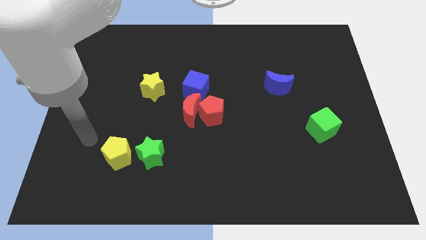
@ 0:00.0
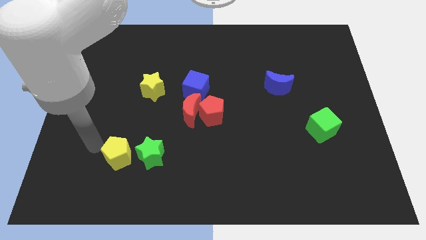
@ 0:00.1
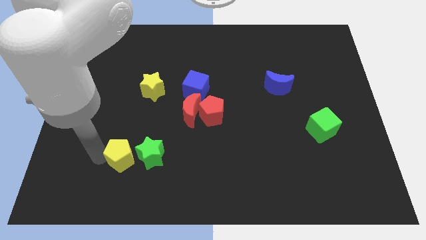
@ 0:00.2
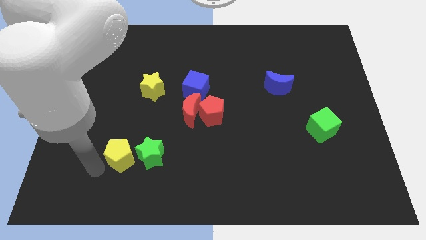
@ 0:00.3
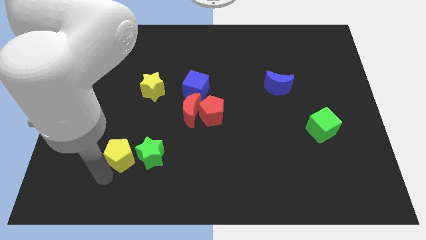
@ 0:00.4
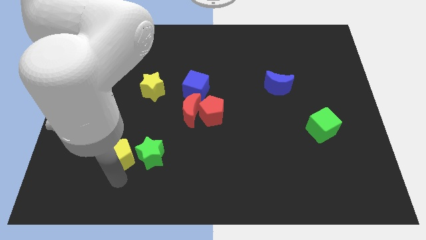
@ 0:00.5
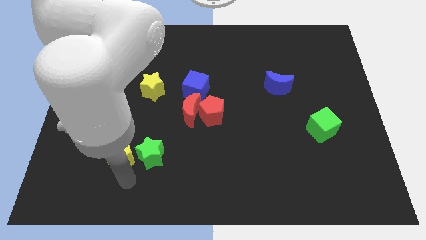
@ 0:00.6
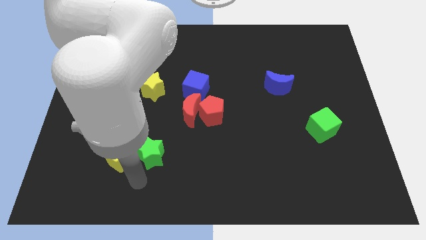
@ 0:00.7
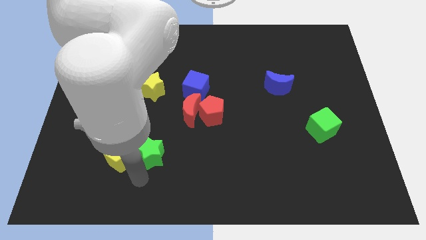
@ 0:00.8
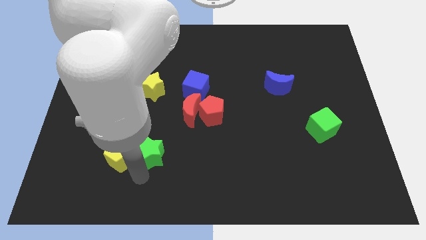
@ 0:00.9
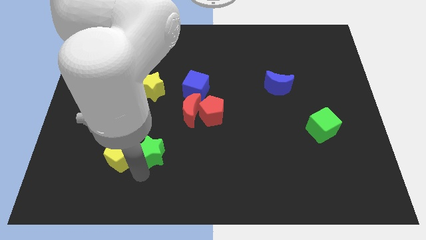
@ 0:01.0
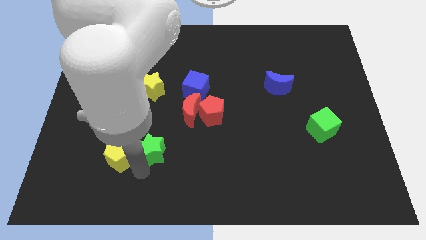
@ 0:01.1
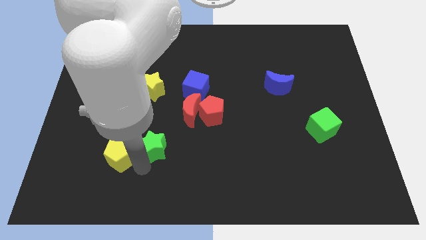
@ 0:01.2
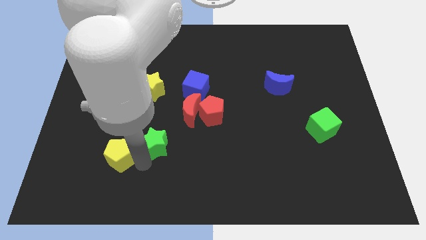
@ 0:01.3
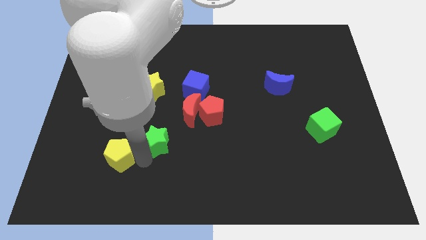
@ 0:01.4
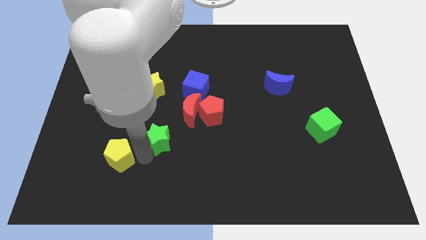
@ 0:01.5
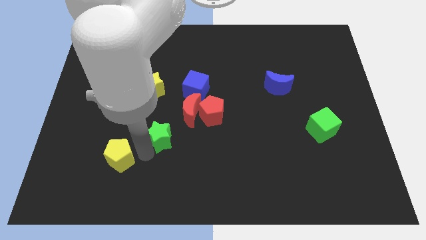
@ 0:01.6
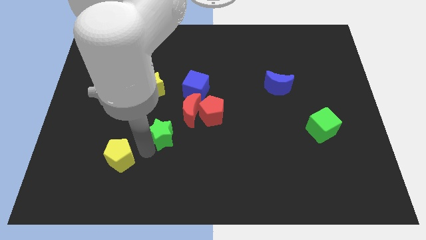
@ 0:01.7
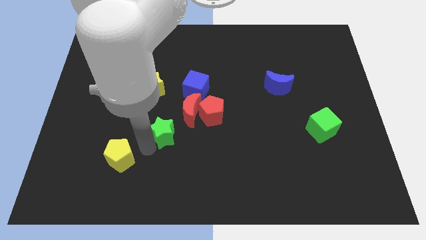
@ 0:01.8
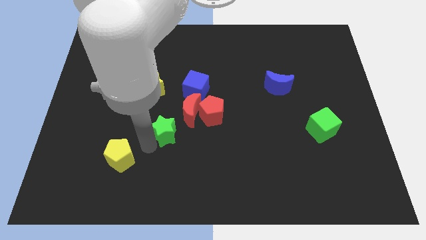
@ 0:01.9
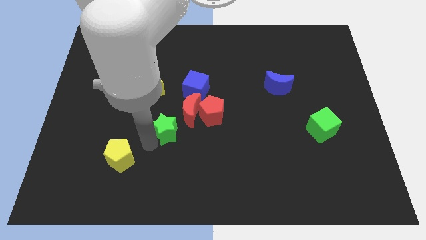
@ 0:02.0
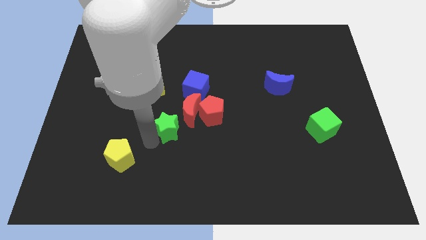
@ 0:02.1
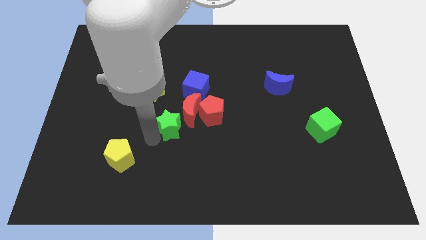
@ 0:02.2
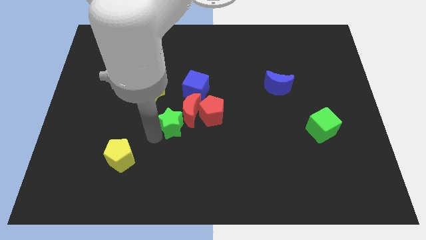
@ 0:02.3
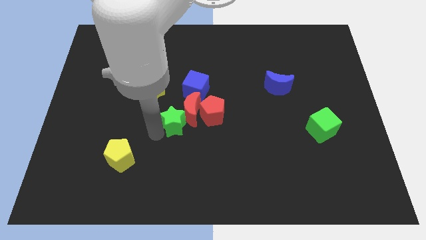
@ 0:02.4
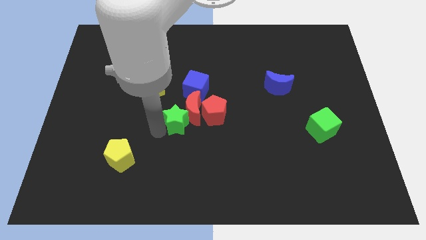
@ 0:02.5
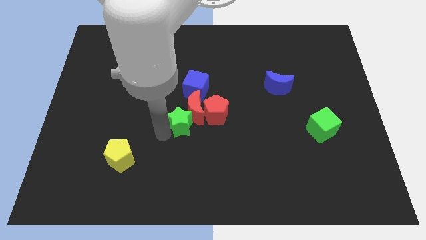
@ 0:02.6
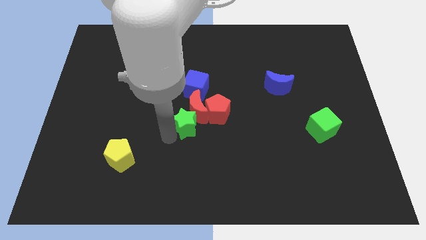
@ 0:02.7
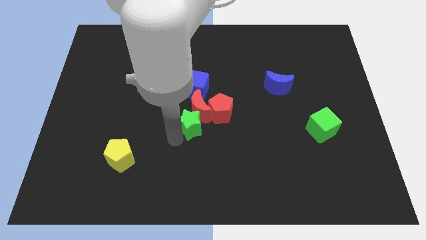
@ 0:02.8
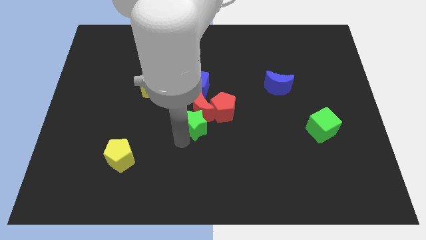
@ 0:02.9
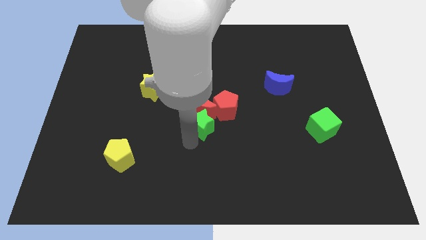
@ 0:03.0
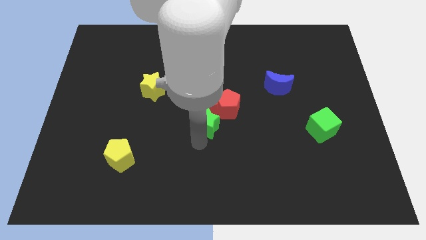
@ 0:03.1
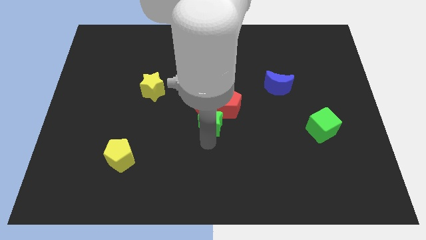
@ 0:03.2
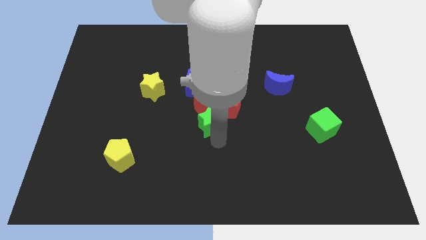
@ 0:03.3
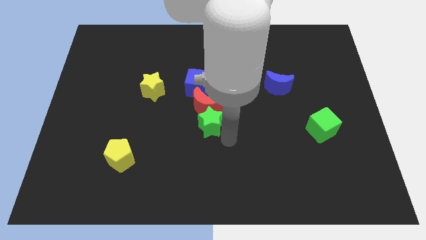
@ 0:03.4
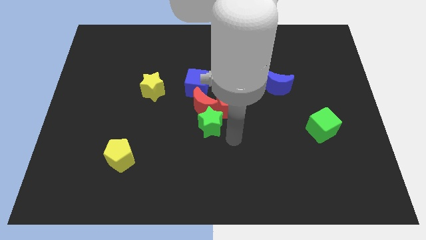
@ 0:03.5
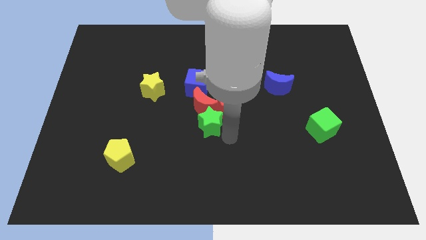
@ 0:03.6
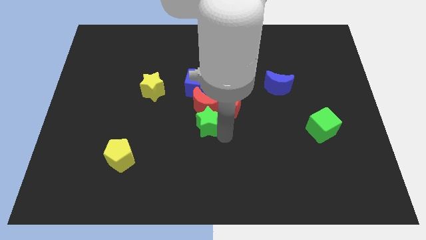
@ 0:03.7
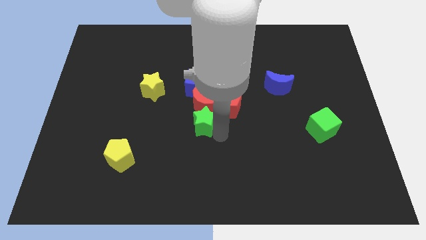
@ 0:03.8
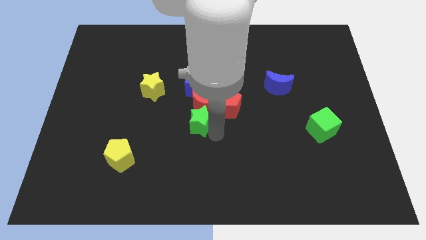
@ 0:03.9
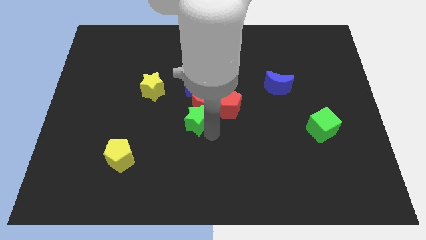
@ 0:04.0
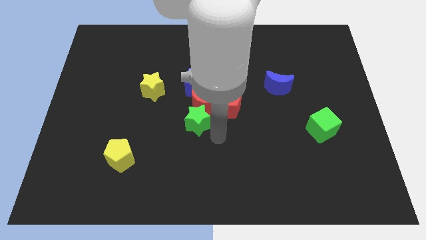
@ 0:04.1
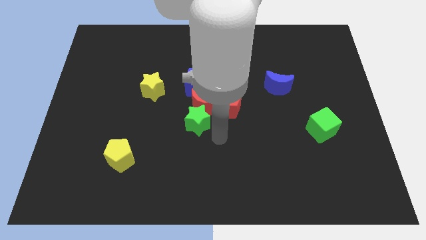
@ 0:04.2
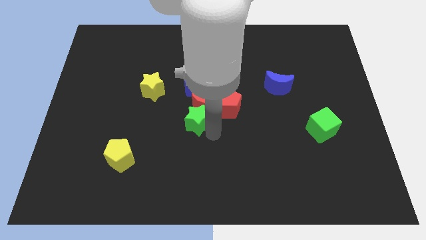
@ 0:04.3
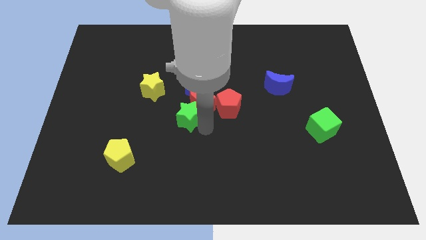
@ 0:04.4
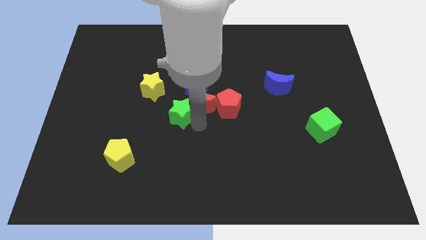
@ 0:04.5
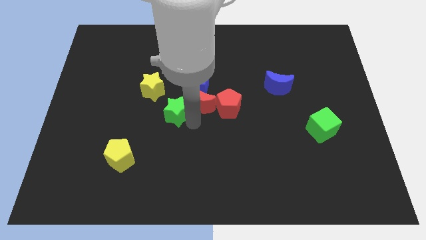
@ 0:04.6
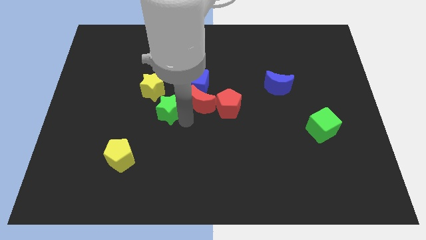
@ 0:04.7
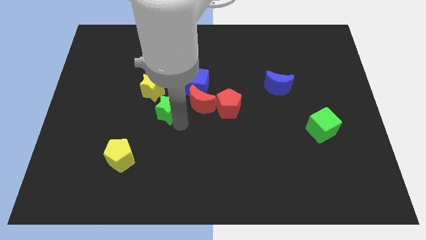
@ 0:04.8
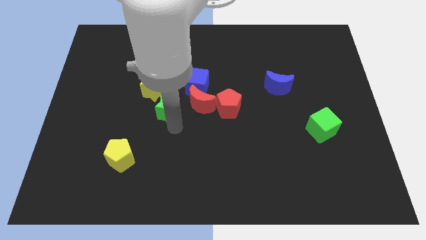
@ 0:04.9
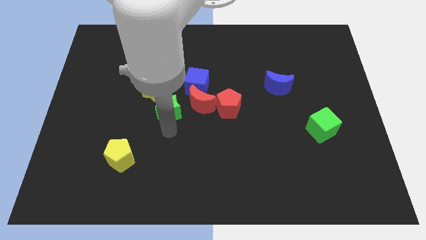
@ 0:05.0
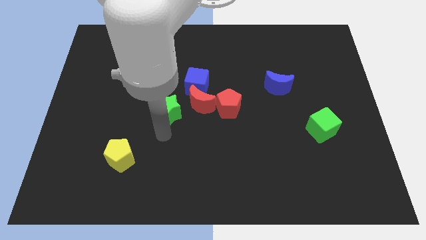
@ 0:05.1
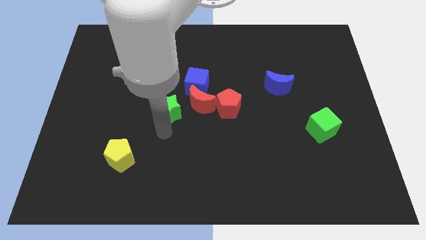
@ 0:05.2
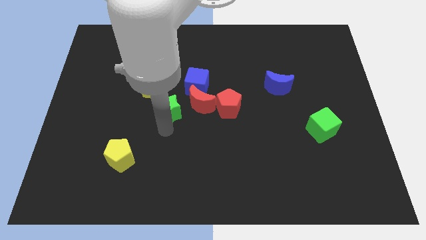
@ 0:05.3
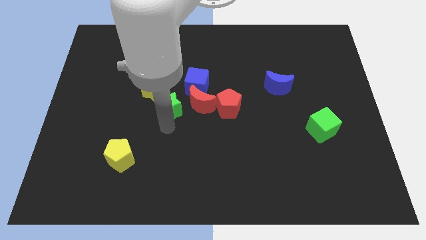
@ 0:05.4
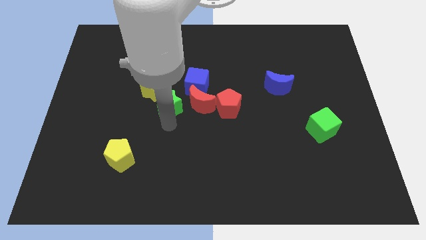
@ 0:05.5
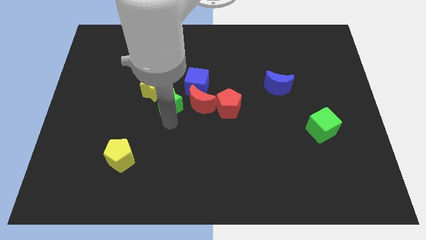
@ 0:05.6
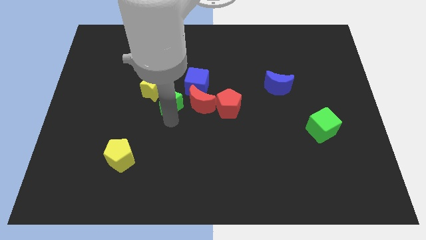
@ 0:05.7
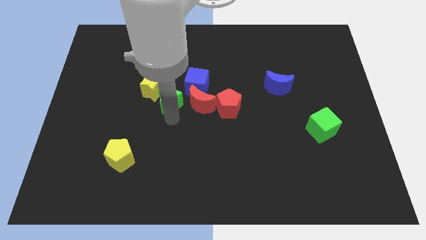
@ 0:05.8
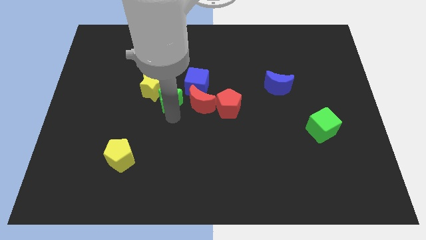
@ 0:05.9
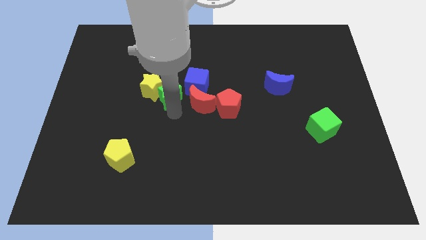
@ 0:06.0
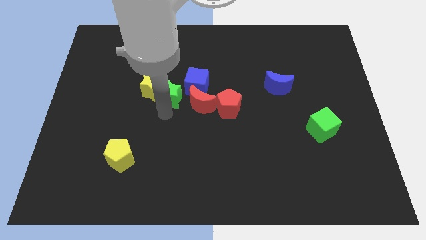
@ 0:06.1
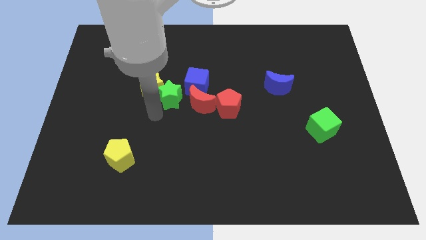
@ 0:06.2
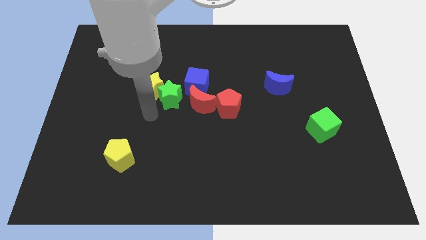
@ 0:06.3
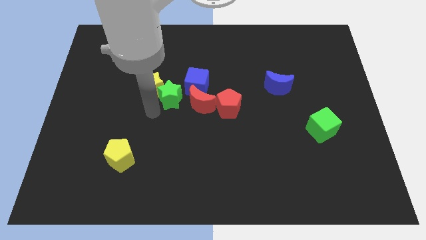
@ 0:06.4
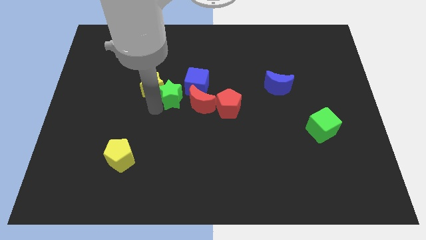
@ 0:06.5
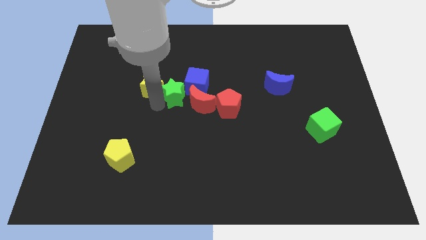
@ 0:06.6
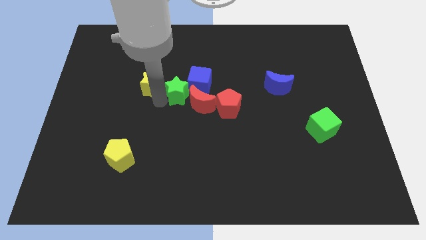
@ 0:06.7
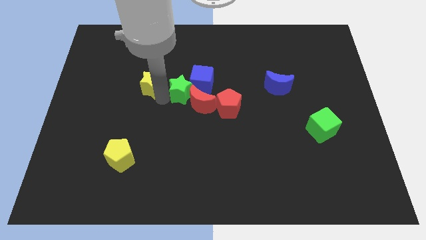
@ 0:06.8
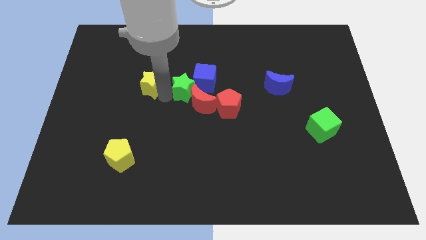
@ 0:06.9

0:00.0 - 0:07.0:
push the green star to the top side of the red moon
